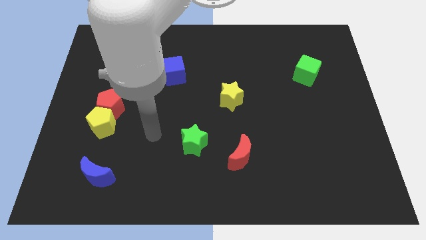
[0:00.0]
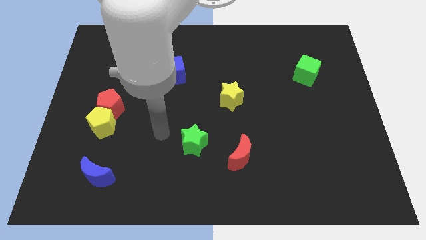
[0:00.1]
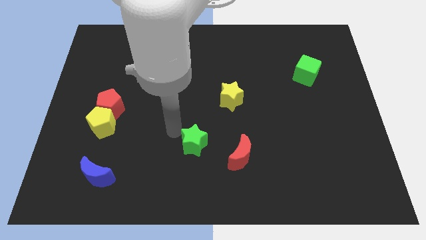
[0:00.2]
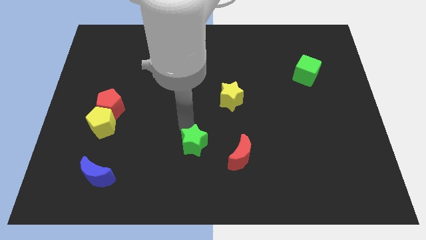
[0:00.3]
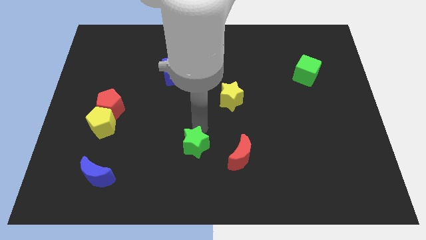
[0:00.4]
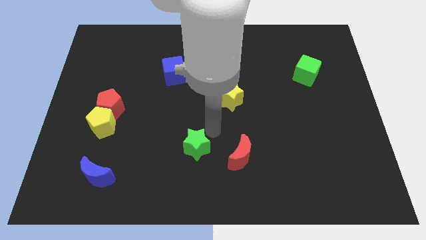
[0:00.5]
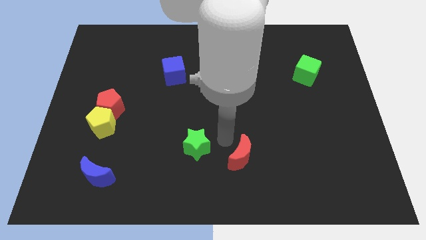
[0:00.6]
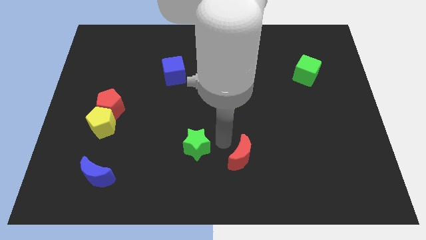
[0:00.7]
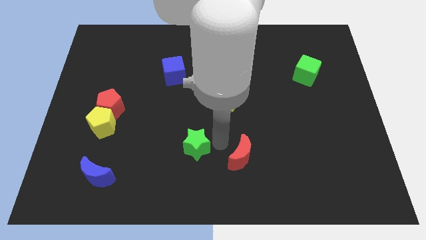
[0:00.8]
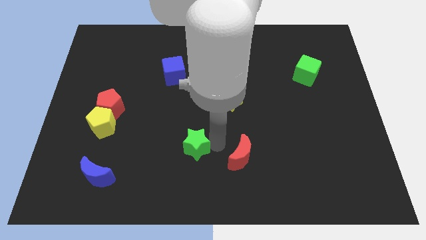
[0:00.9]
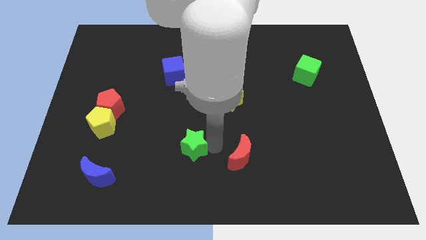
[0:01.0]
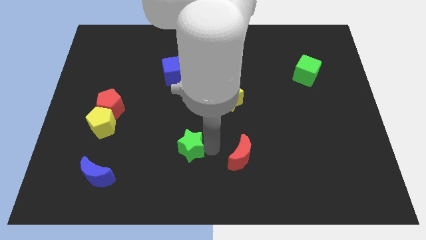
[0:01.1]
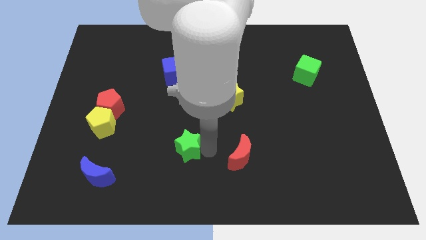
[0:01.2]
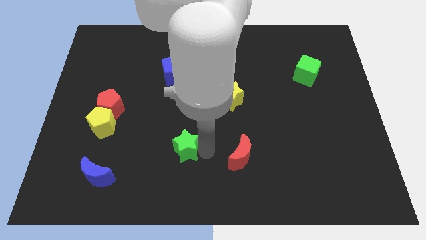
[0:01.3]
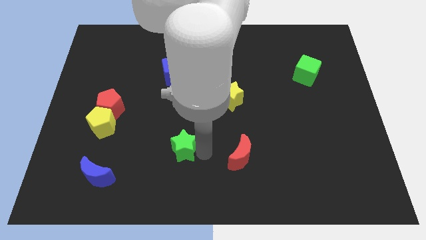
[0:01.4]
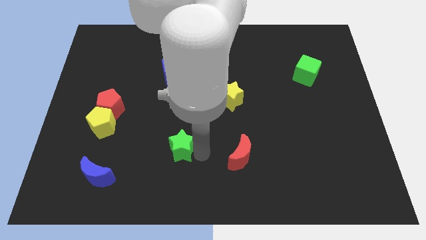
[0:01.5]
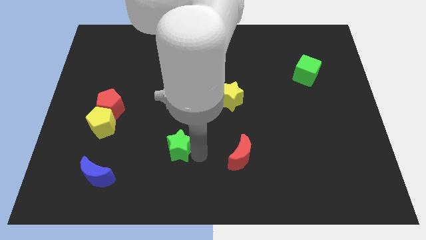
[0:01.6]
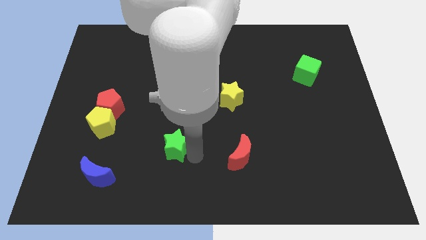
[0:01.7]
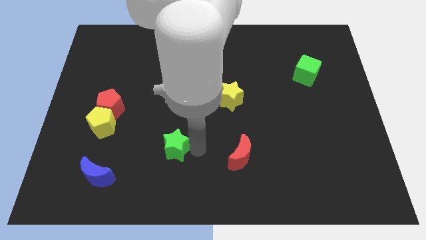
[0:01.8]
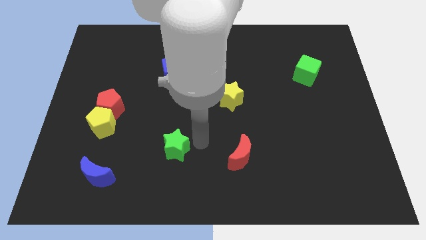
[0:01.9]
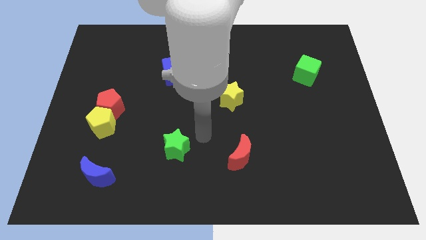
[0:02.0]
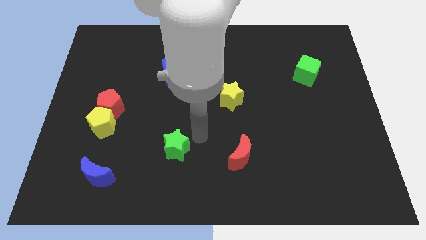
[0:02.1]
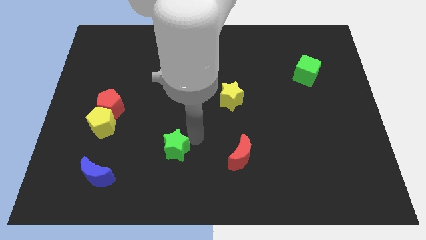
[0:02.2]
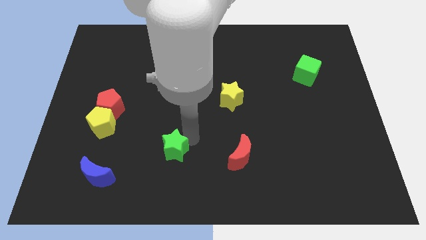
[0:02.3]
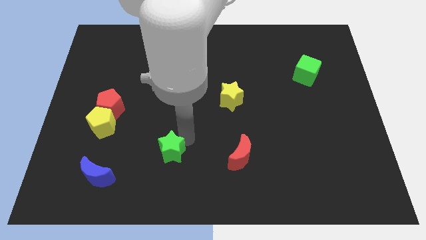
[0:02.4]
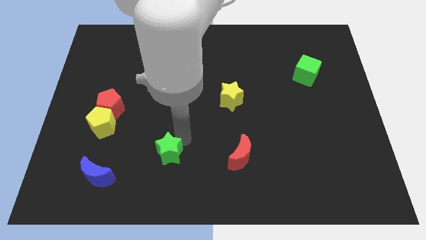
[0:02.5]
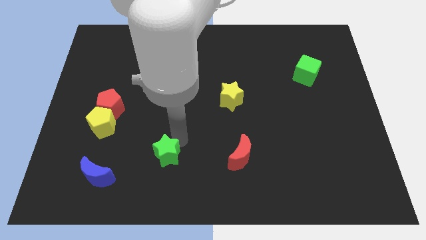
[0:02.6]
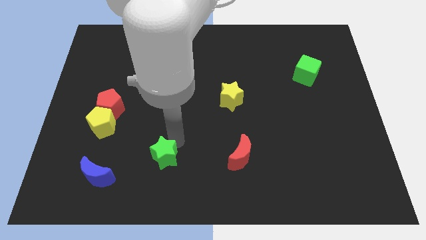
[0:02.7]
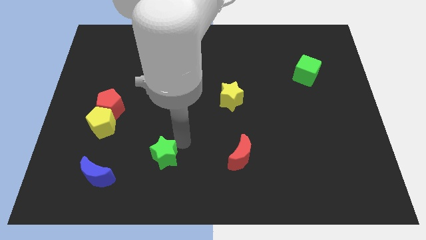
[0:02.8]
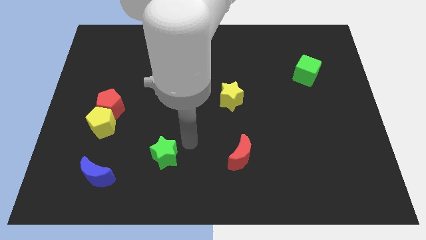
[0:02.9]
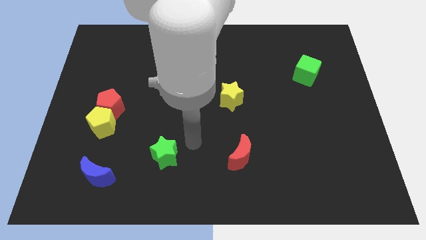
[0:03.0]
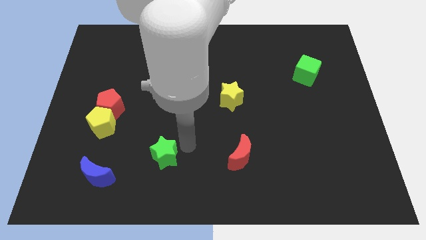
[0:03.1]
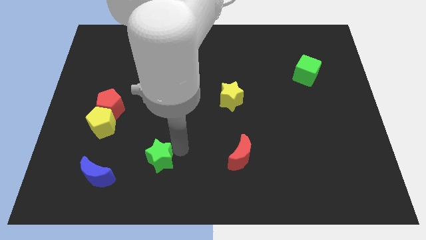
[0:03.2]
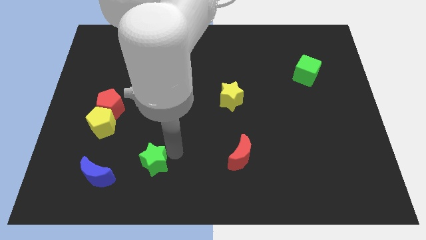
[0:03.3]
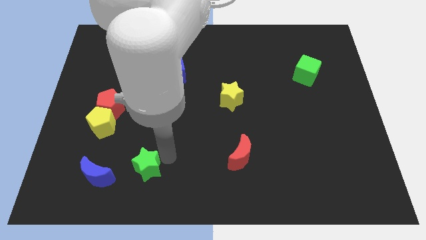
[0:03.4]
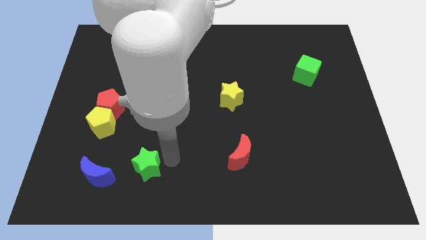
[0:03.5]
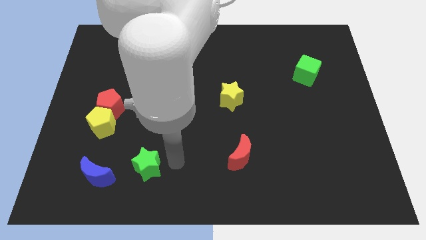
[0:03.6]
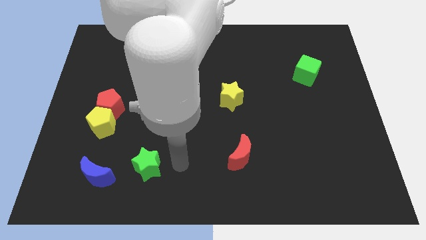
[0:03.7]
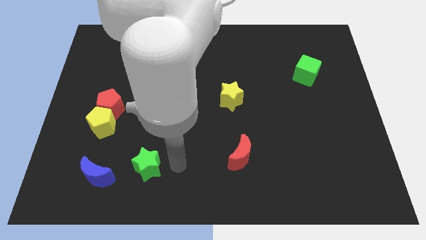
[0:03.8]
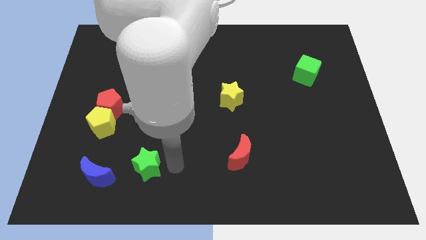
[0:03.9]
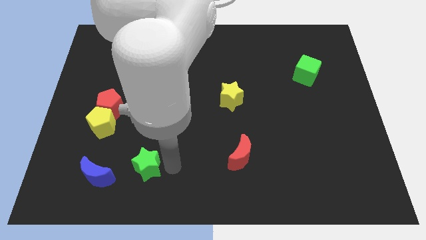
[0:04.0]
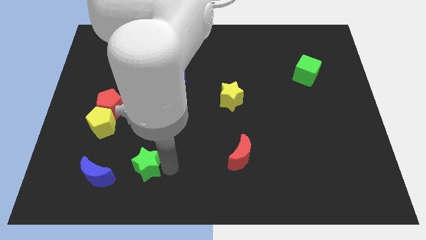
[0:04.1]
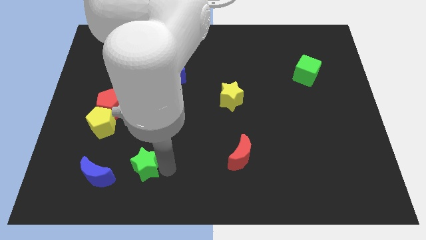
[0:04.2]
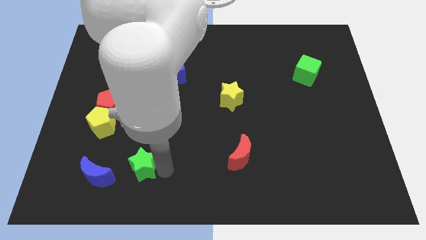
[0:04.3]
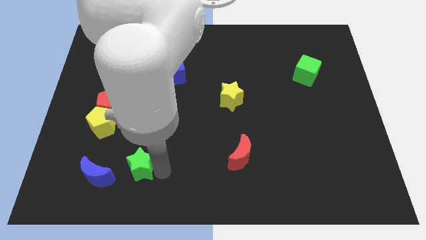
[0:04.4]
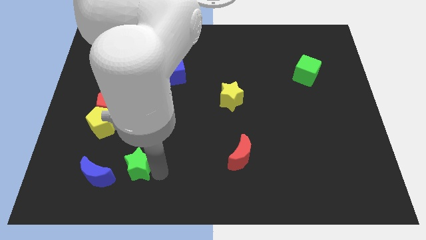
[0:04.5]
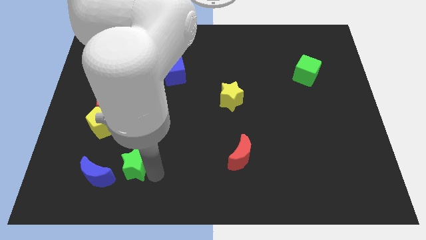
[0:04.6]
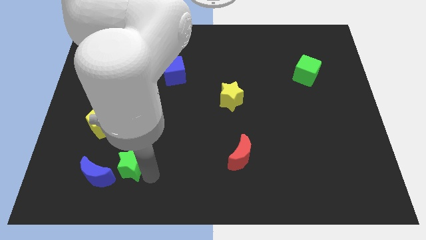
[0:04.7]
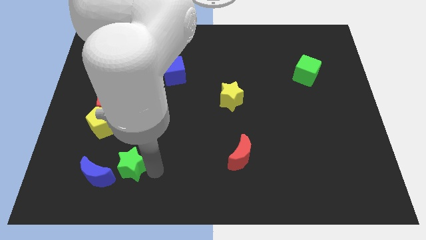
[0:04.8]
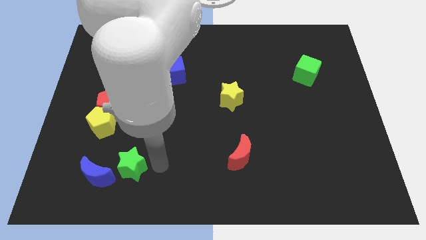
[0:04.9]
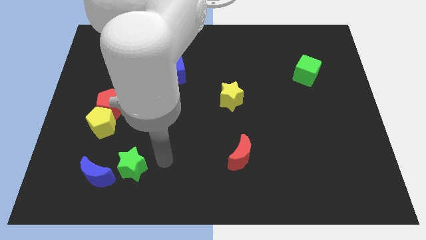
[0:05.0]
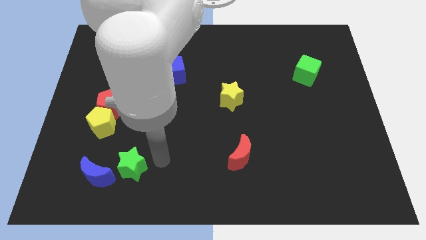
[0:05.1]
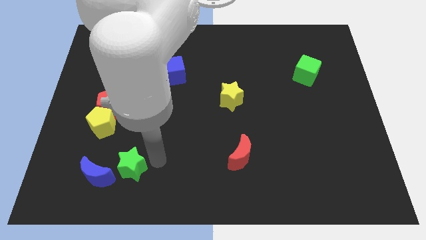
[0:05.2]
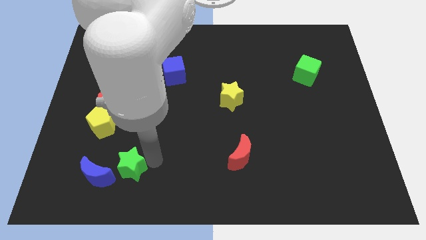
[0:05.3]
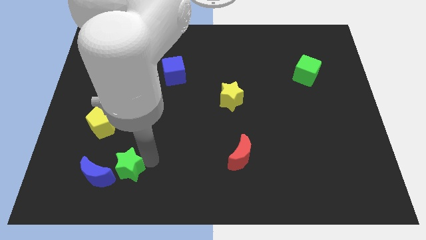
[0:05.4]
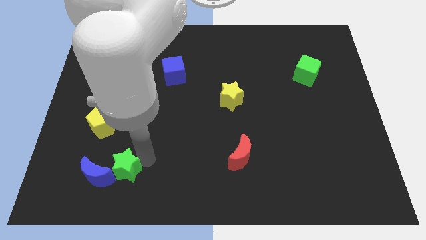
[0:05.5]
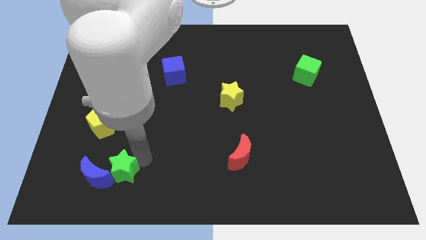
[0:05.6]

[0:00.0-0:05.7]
put the green star close to the blue moon

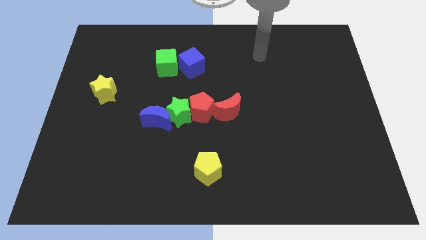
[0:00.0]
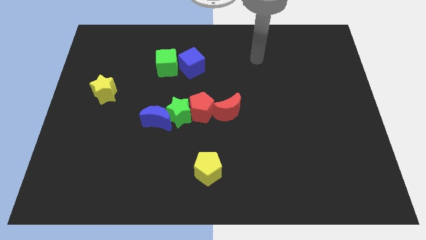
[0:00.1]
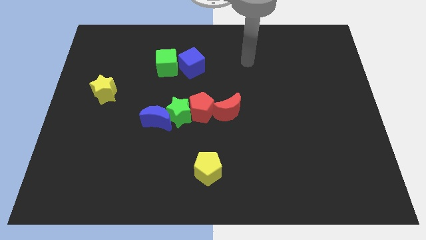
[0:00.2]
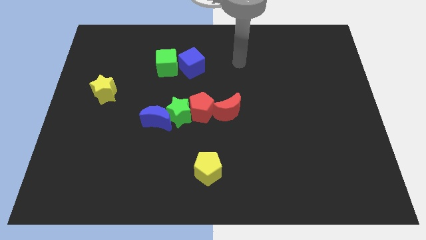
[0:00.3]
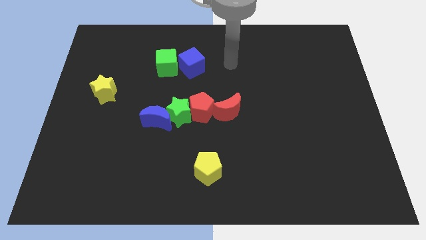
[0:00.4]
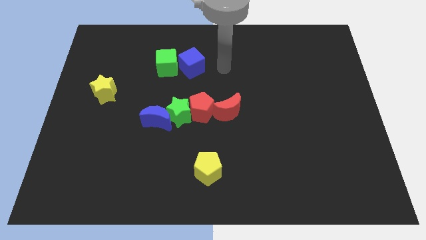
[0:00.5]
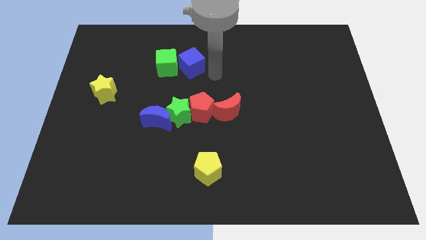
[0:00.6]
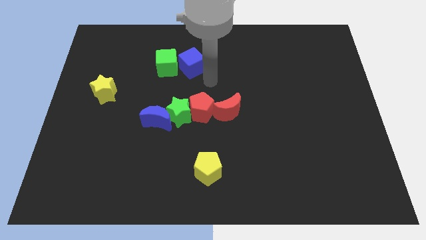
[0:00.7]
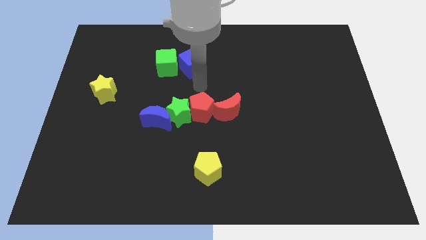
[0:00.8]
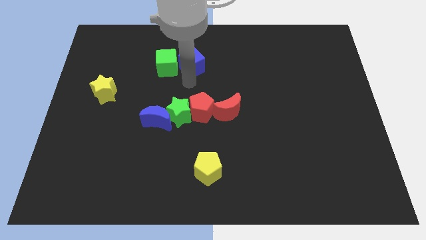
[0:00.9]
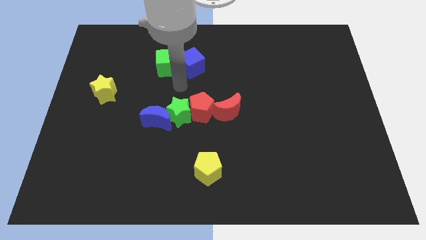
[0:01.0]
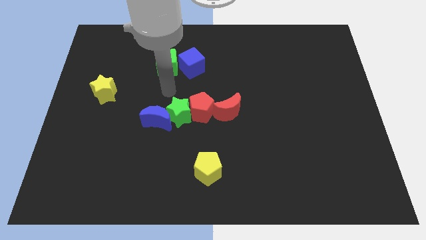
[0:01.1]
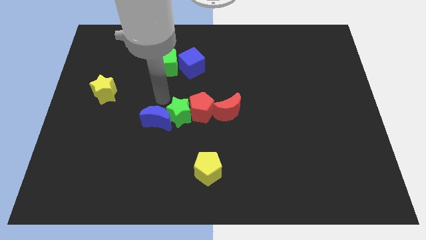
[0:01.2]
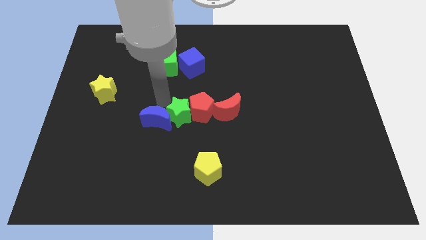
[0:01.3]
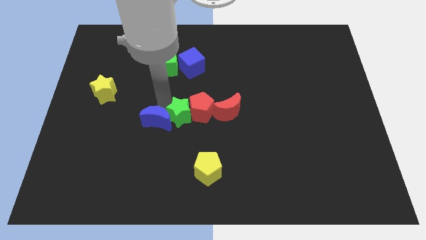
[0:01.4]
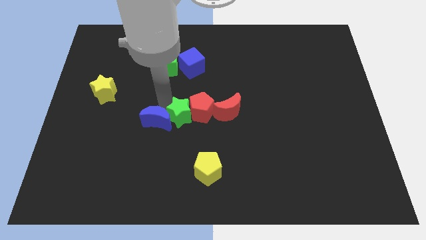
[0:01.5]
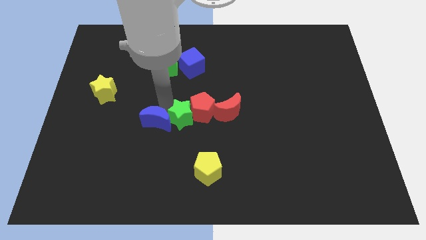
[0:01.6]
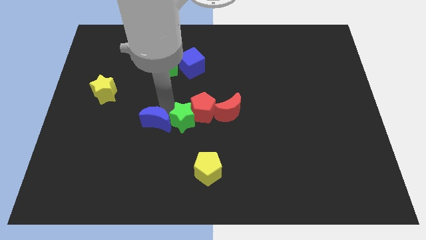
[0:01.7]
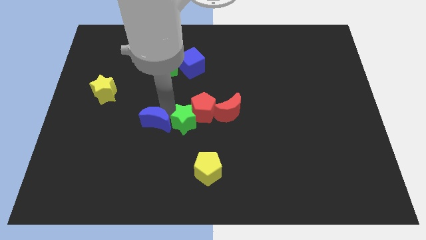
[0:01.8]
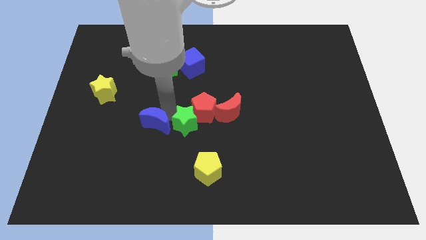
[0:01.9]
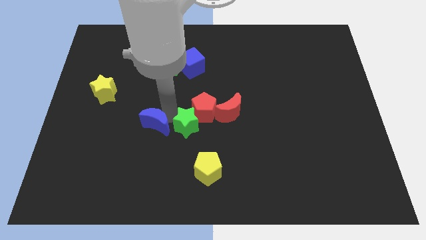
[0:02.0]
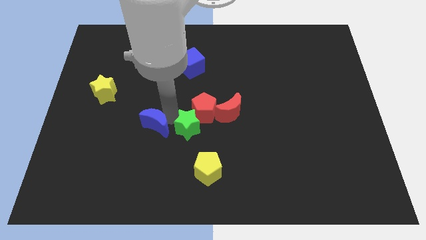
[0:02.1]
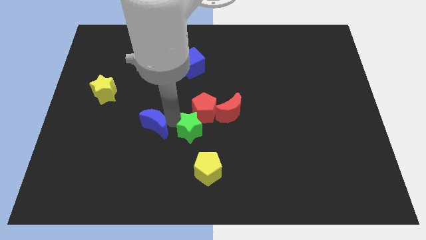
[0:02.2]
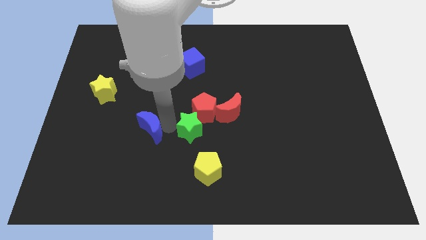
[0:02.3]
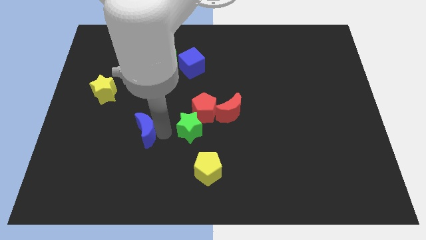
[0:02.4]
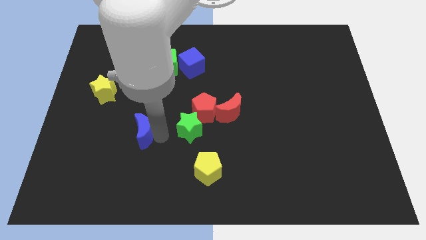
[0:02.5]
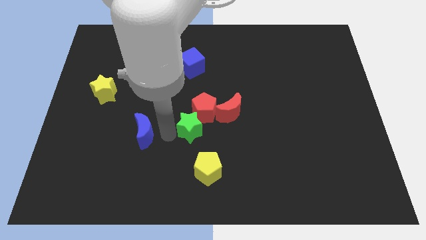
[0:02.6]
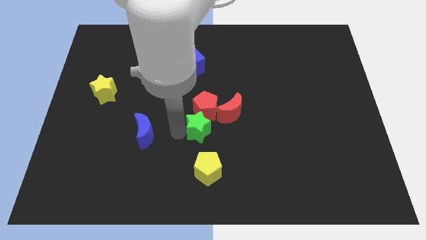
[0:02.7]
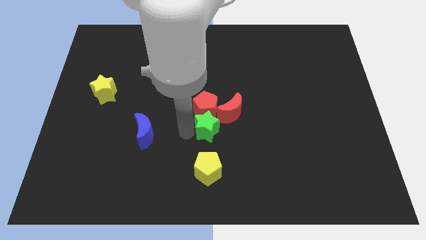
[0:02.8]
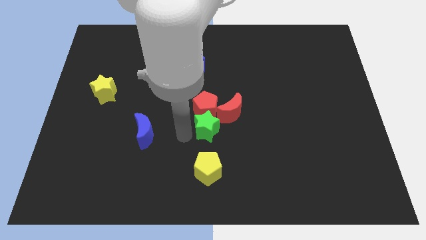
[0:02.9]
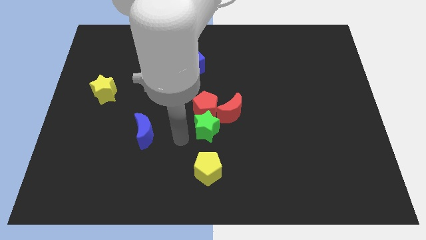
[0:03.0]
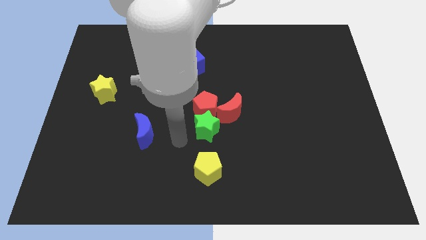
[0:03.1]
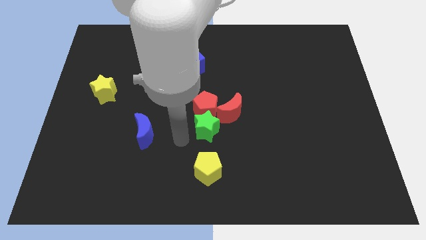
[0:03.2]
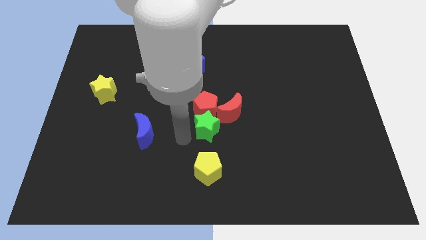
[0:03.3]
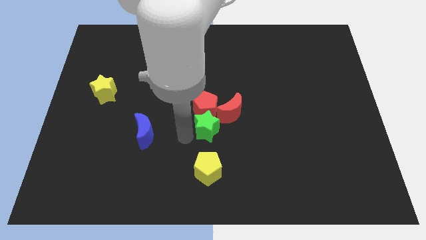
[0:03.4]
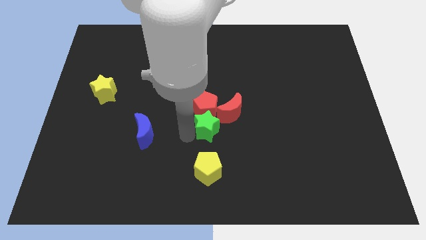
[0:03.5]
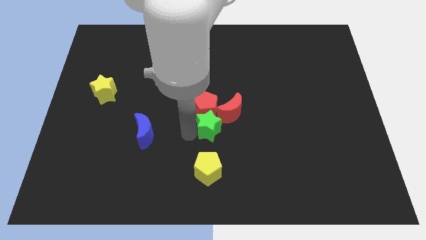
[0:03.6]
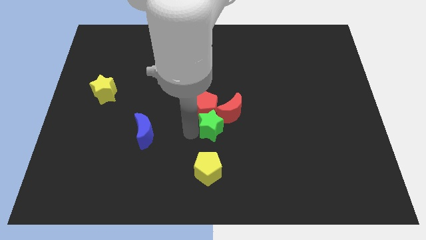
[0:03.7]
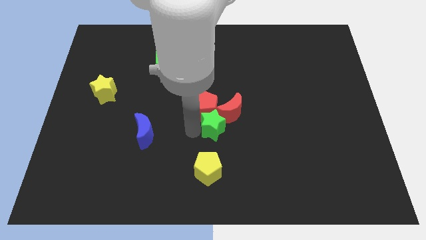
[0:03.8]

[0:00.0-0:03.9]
slide the green star to the red moon
